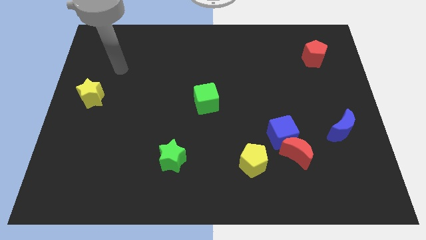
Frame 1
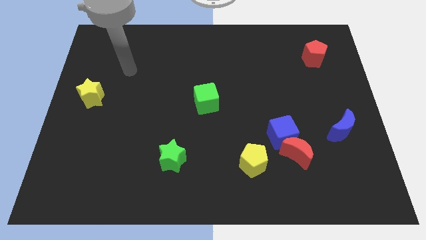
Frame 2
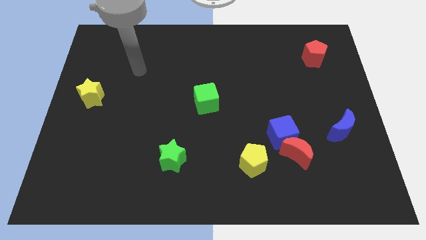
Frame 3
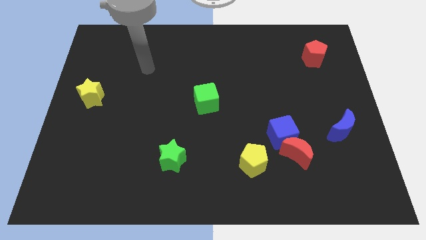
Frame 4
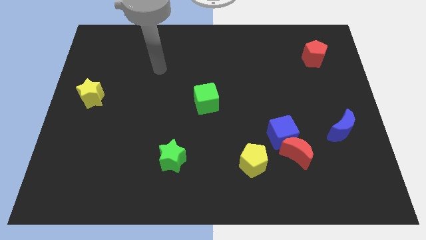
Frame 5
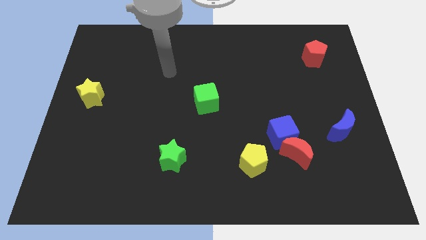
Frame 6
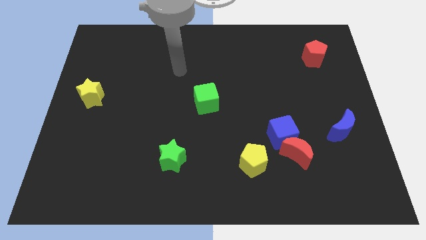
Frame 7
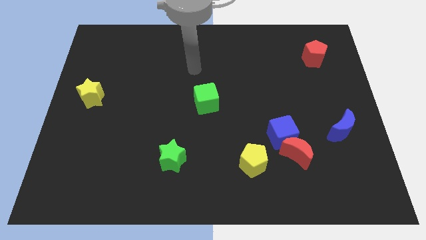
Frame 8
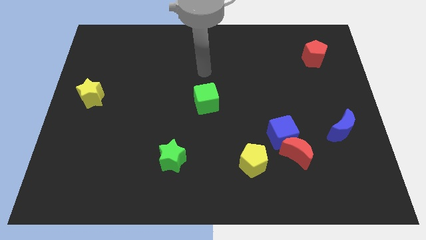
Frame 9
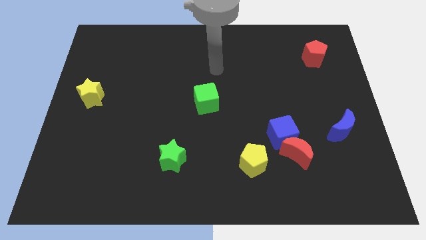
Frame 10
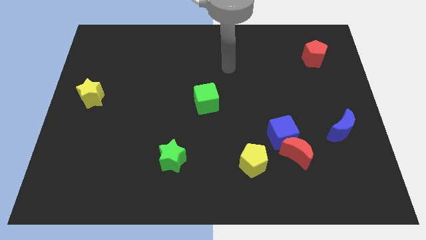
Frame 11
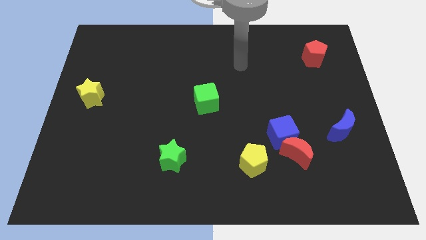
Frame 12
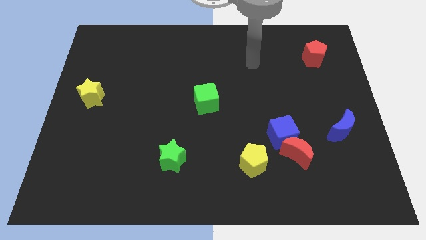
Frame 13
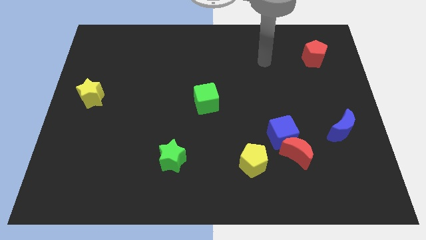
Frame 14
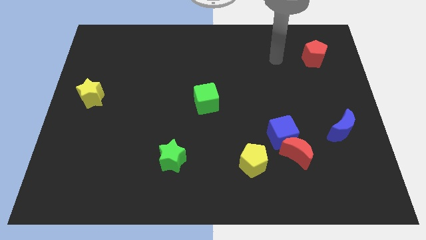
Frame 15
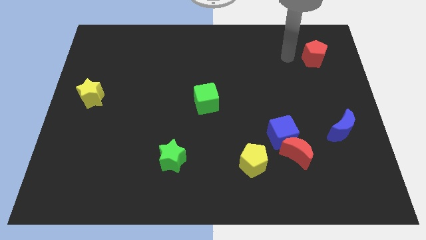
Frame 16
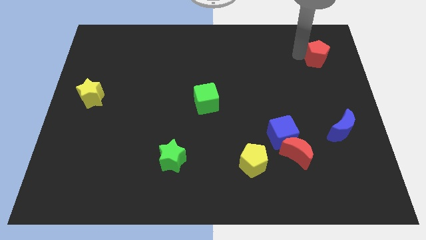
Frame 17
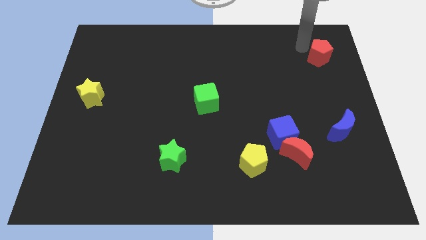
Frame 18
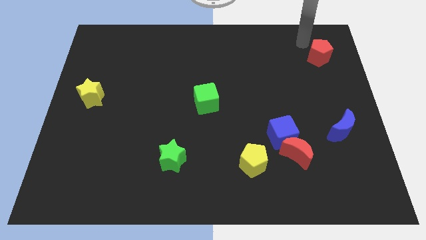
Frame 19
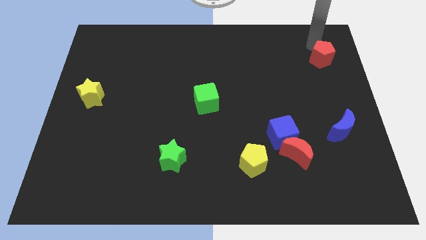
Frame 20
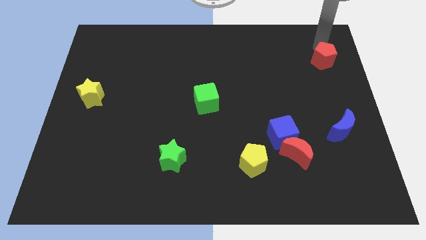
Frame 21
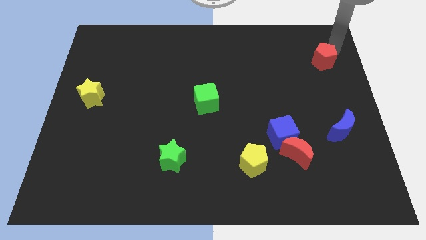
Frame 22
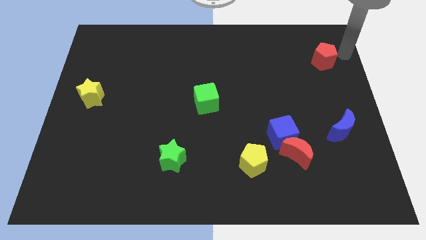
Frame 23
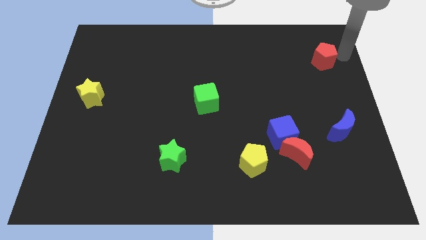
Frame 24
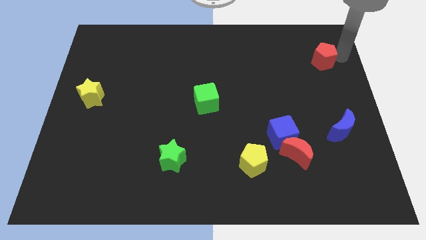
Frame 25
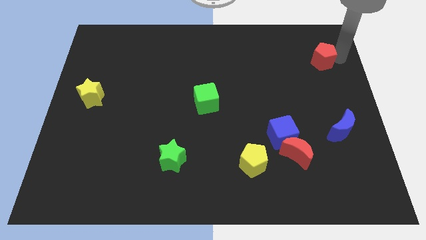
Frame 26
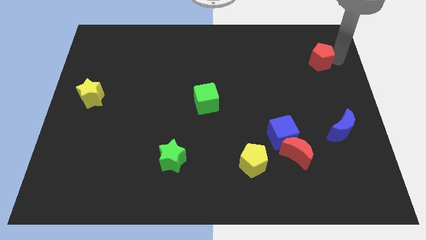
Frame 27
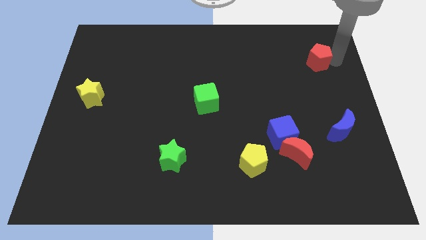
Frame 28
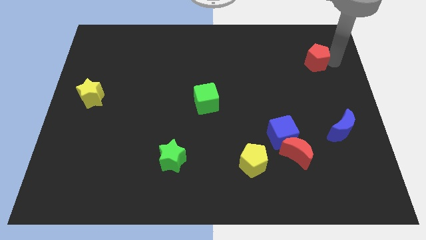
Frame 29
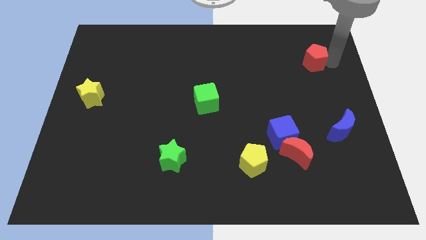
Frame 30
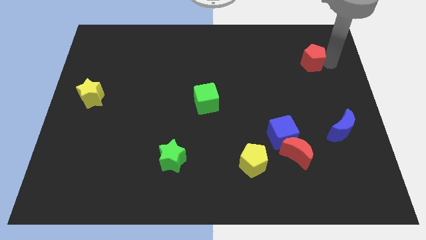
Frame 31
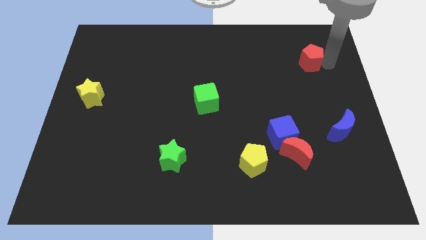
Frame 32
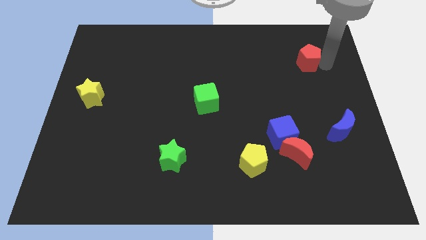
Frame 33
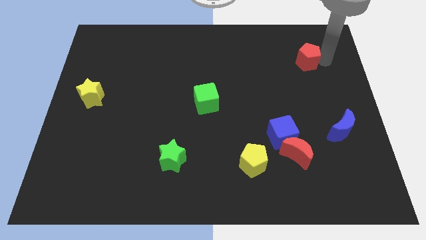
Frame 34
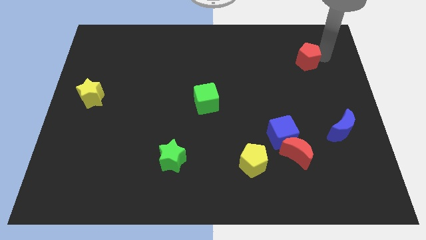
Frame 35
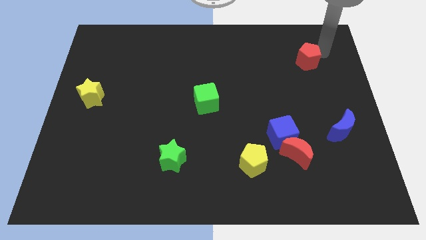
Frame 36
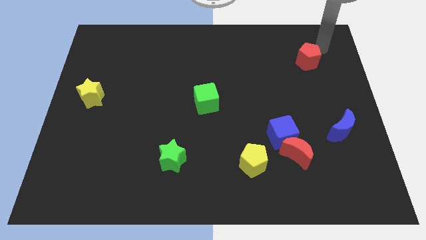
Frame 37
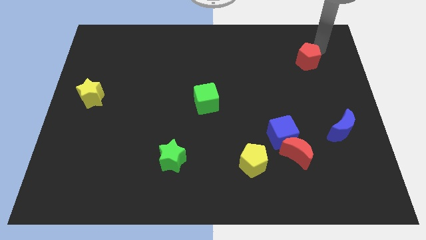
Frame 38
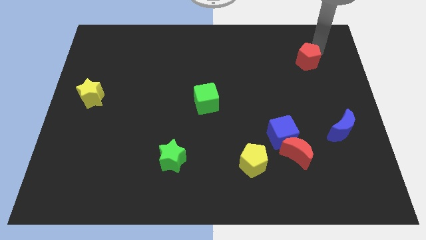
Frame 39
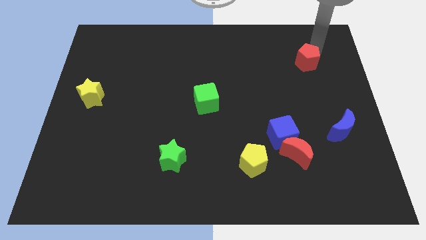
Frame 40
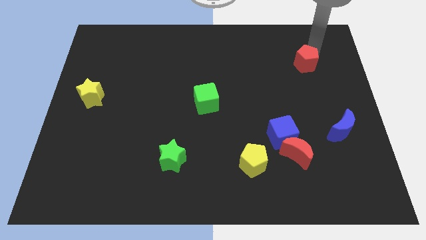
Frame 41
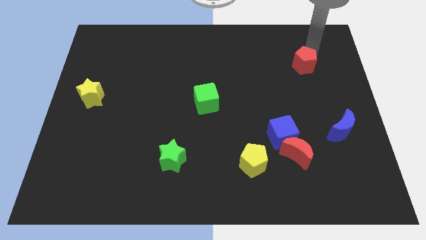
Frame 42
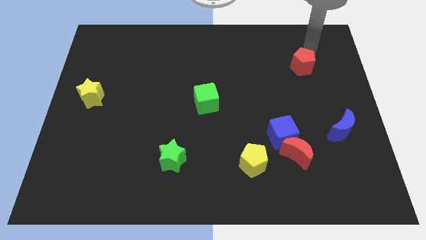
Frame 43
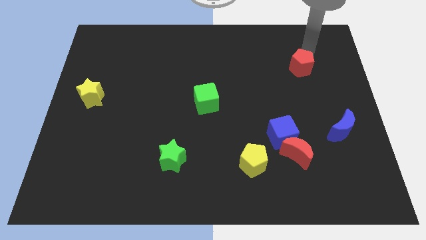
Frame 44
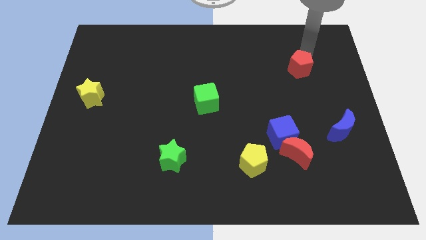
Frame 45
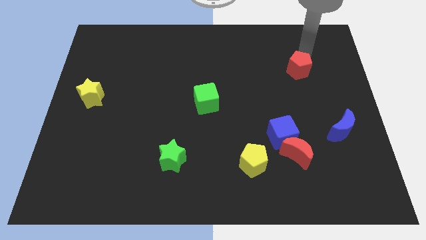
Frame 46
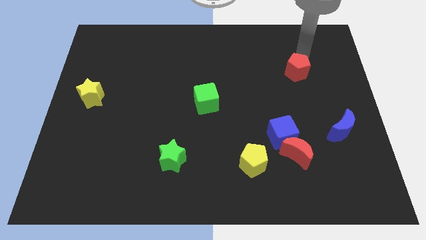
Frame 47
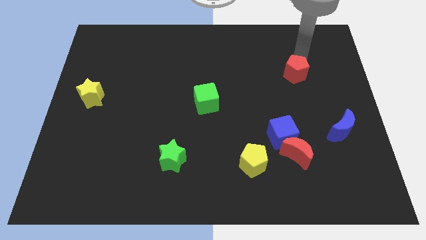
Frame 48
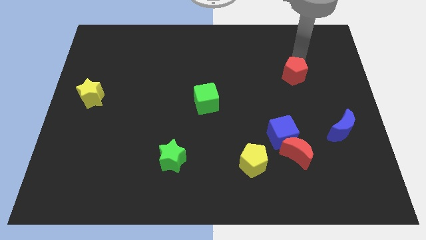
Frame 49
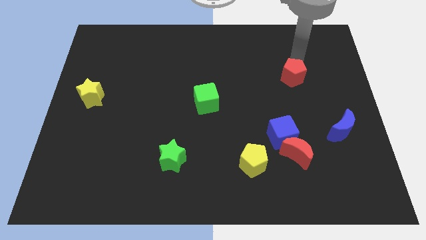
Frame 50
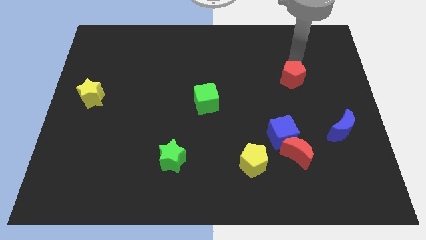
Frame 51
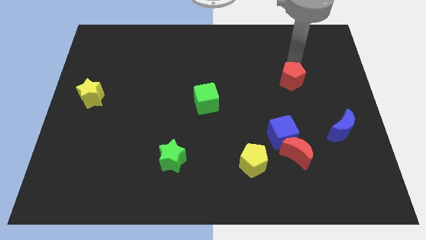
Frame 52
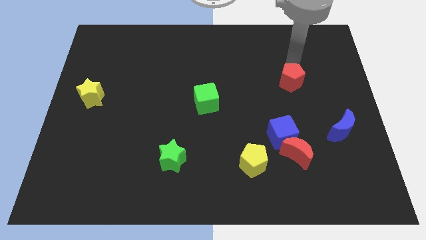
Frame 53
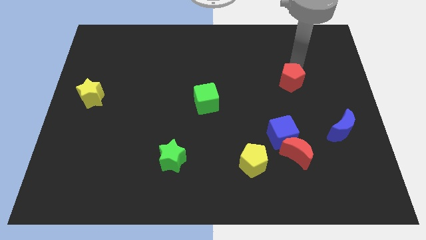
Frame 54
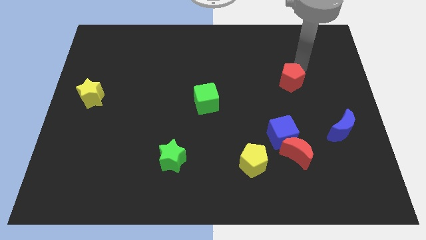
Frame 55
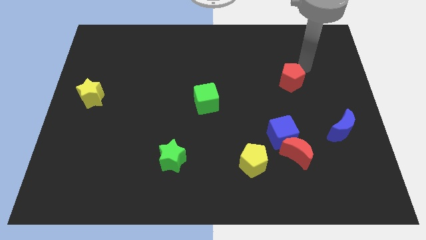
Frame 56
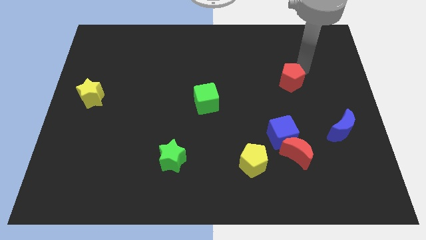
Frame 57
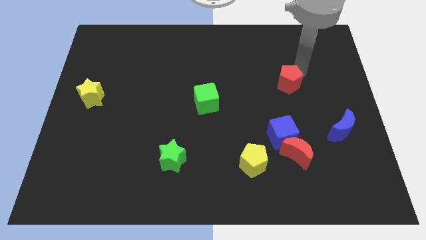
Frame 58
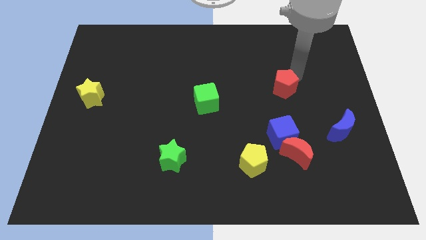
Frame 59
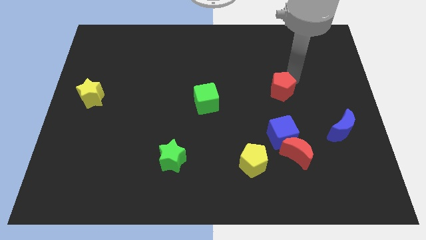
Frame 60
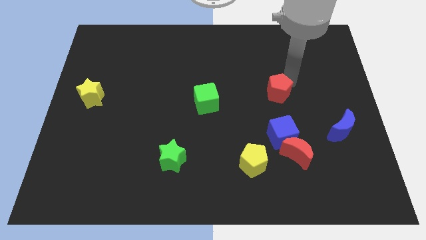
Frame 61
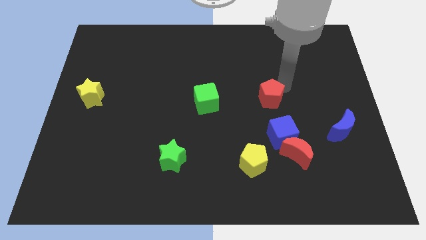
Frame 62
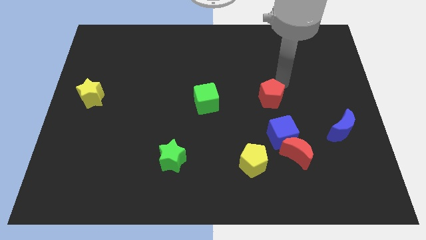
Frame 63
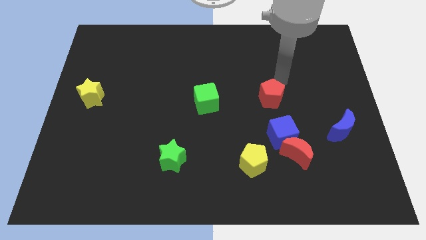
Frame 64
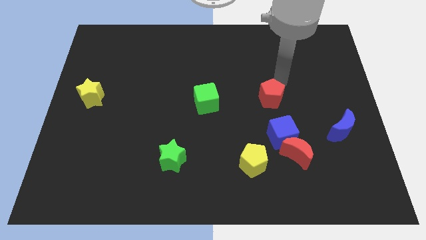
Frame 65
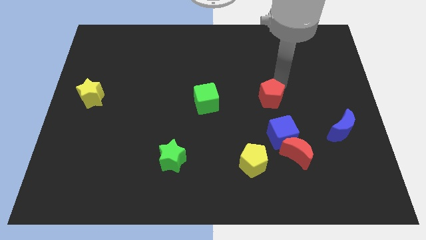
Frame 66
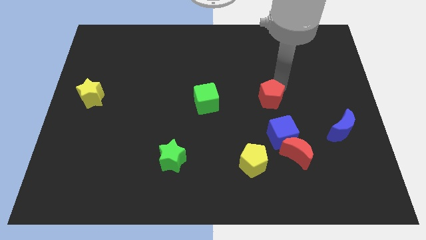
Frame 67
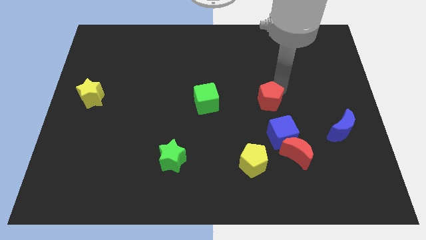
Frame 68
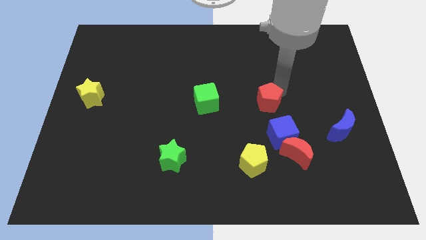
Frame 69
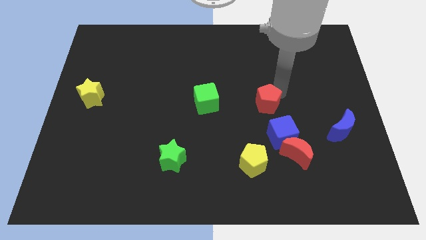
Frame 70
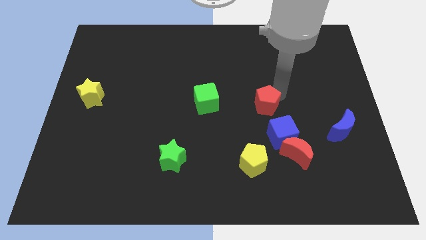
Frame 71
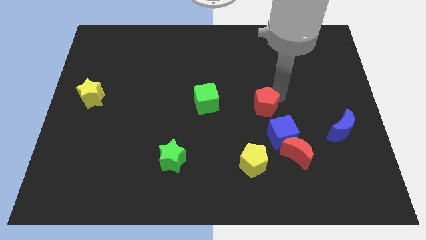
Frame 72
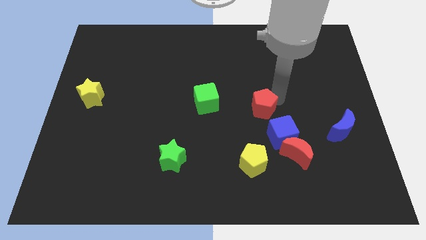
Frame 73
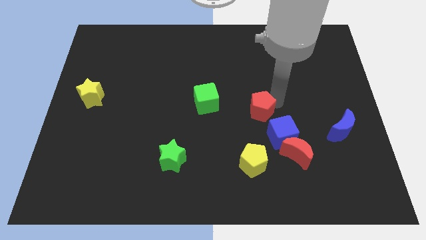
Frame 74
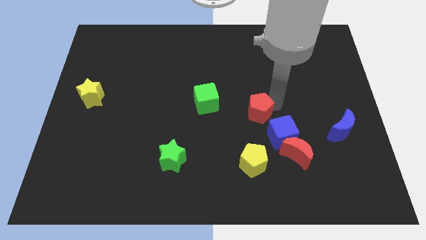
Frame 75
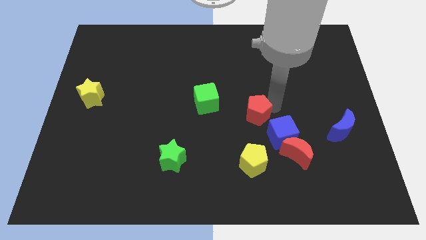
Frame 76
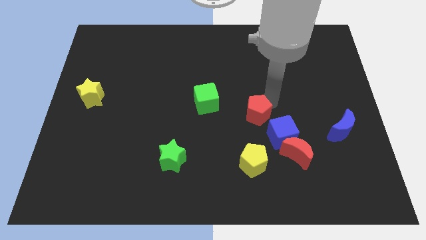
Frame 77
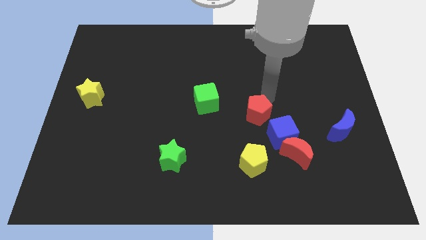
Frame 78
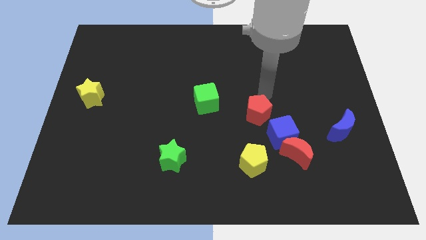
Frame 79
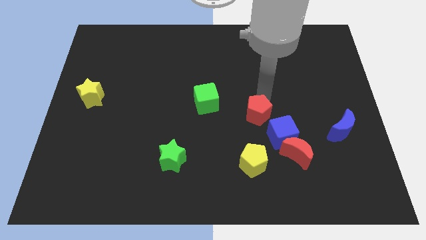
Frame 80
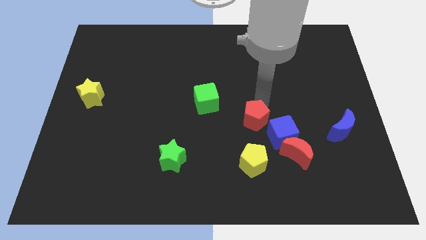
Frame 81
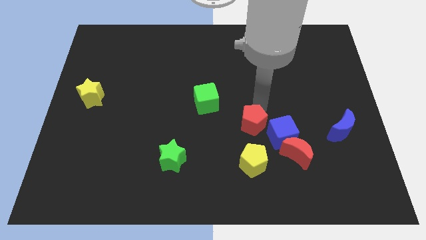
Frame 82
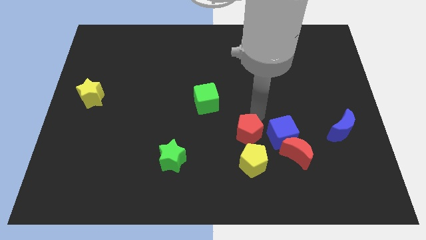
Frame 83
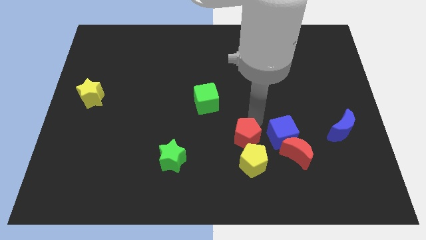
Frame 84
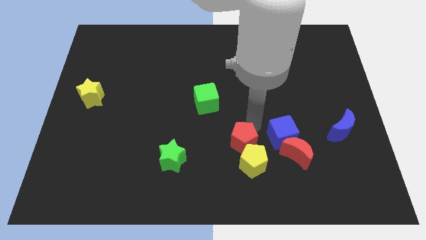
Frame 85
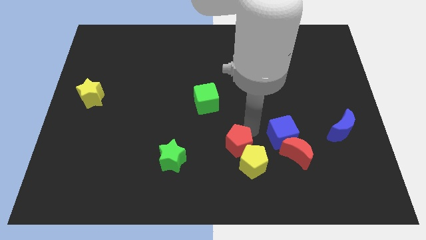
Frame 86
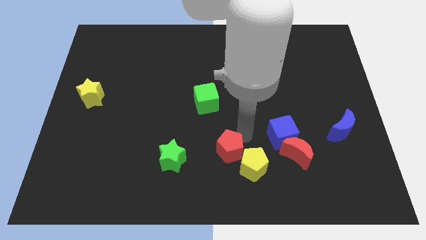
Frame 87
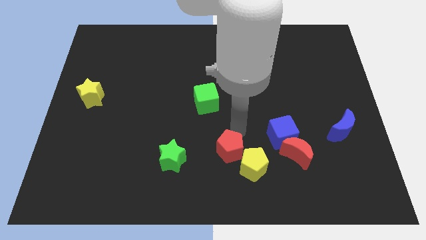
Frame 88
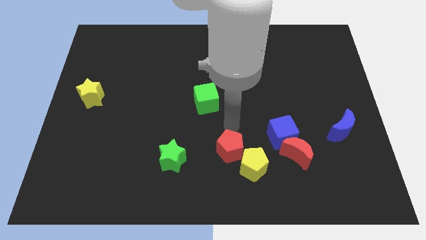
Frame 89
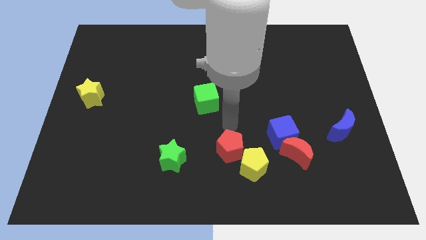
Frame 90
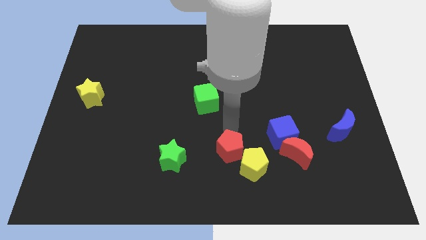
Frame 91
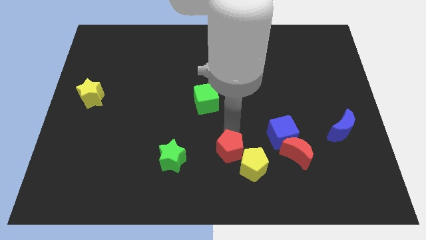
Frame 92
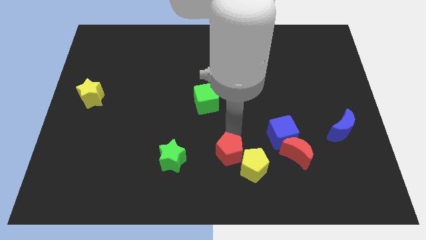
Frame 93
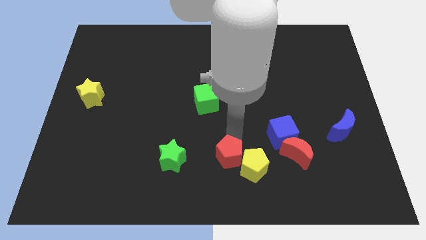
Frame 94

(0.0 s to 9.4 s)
move the red pentagon to the bottom side
